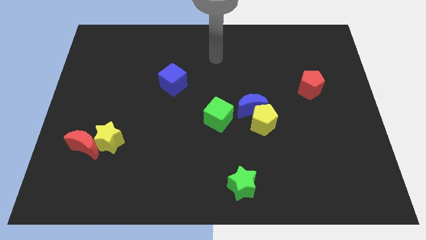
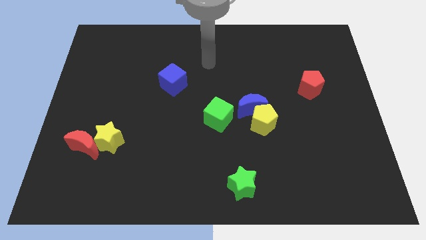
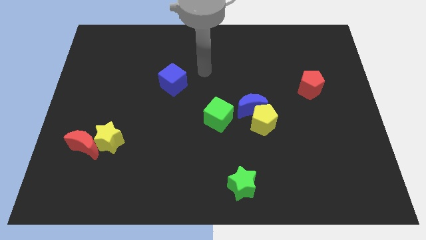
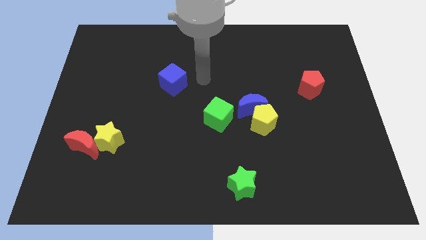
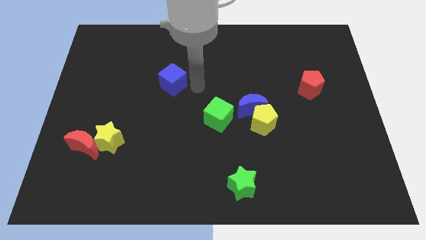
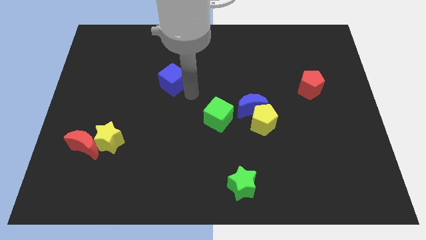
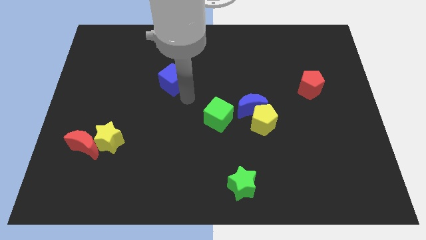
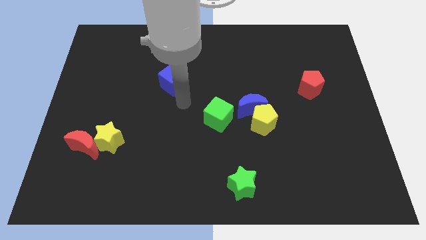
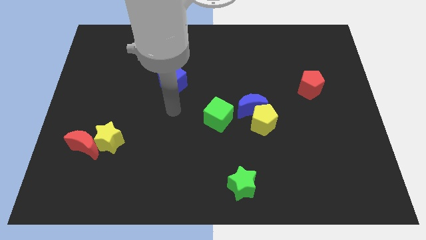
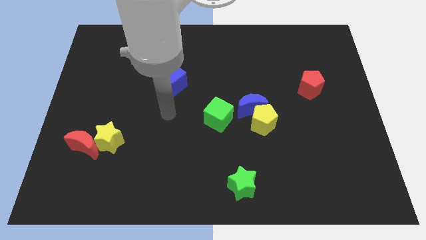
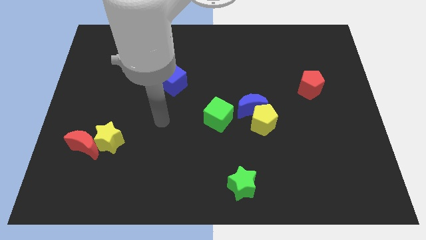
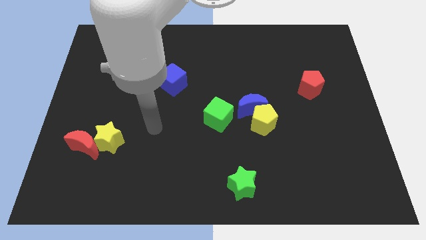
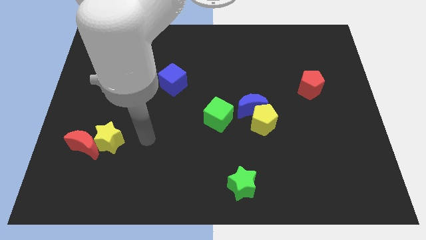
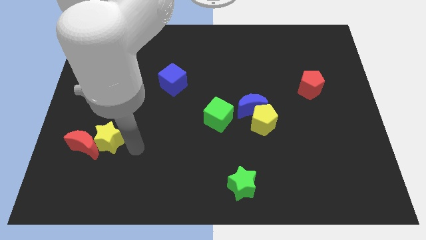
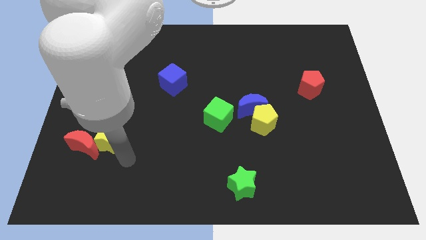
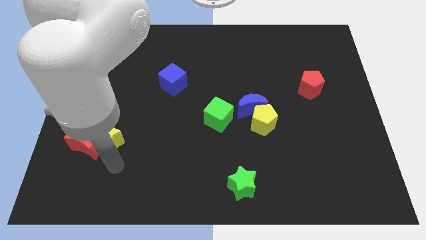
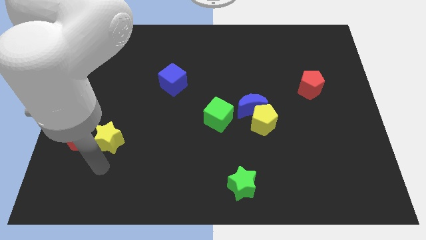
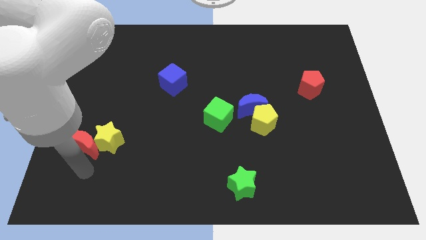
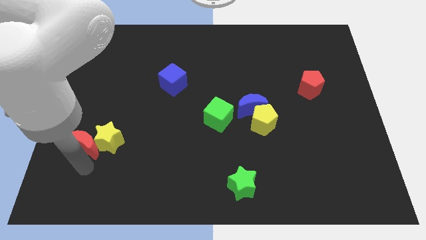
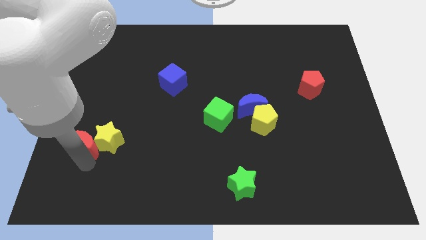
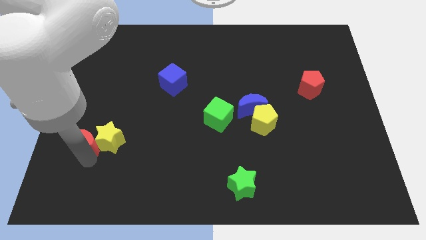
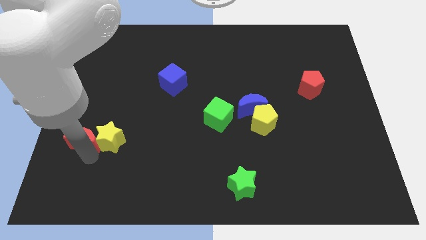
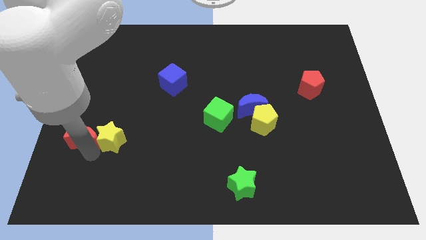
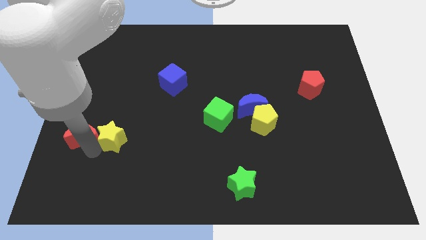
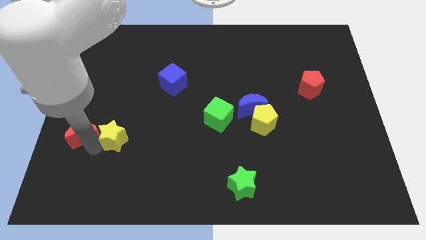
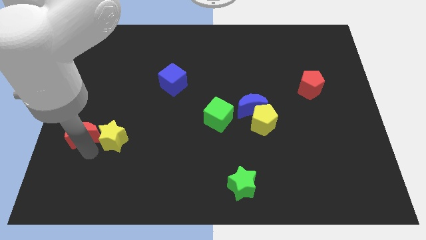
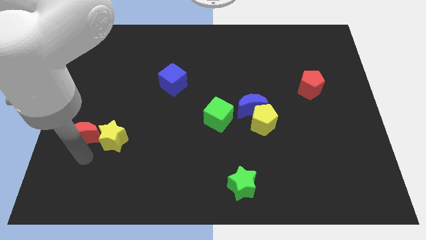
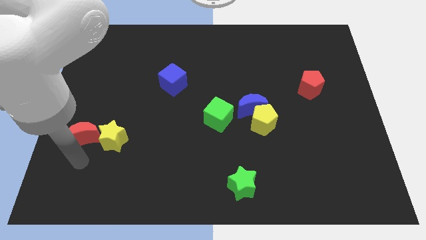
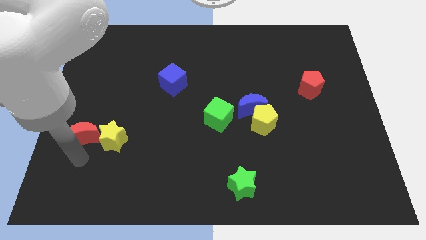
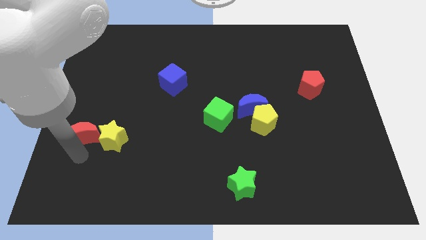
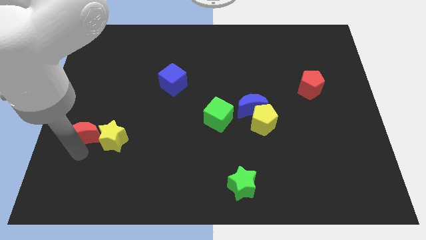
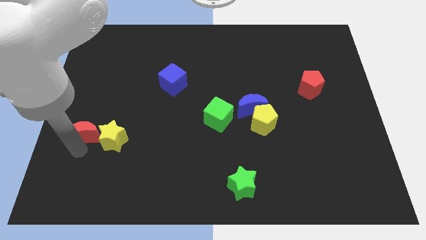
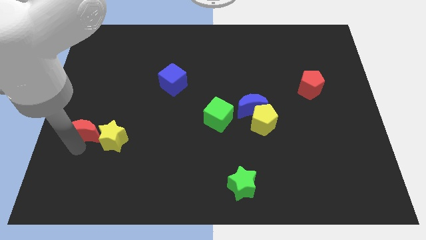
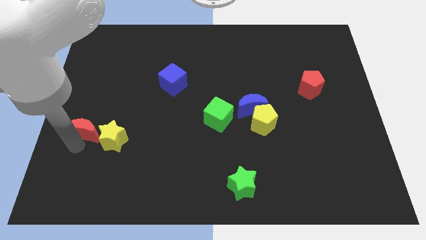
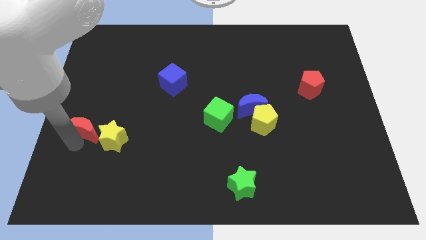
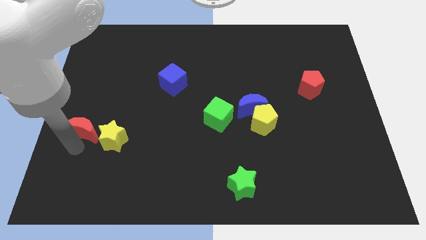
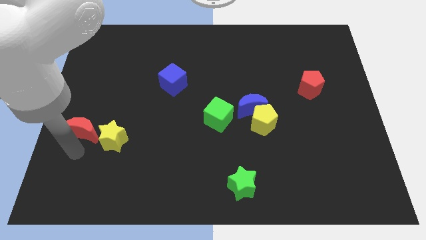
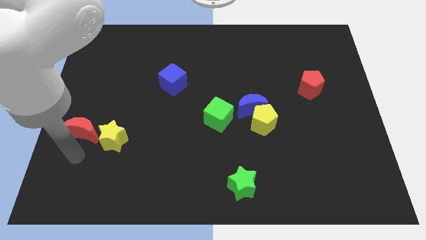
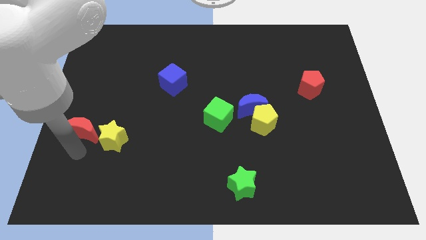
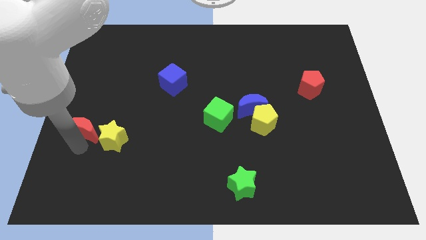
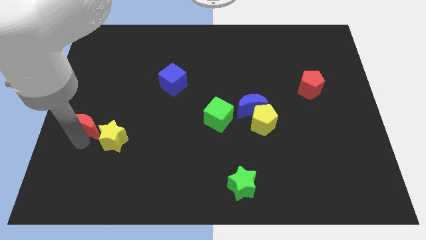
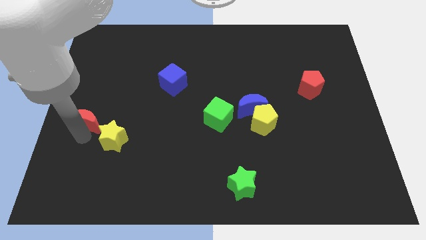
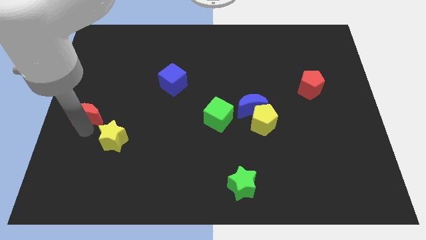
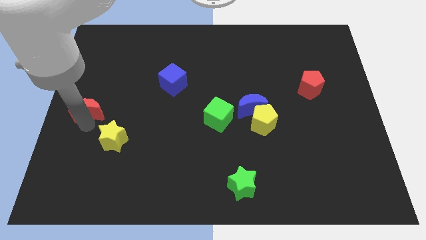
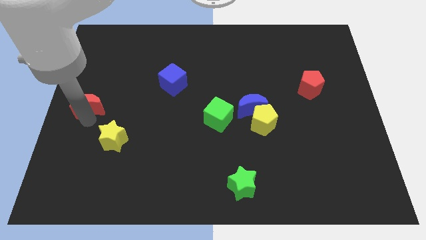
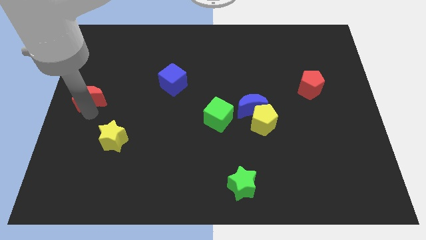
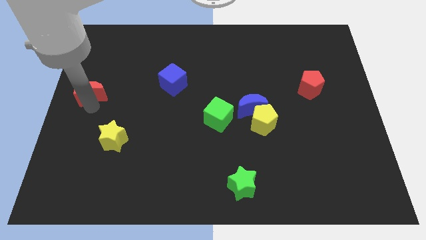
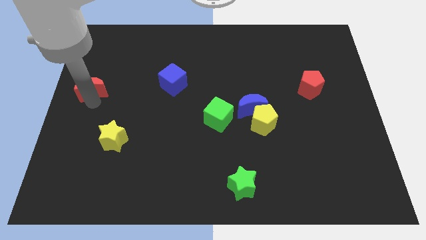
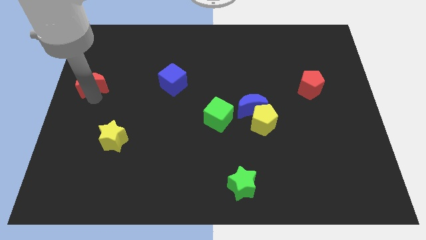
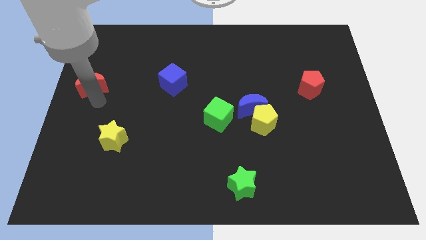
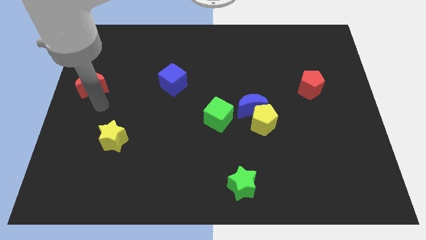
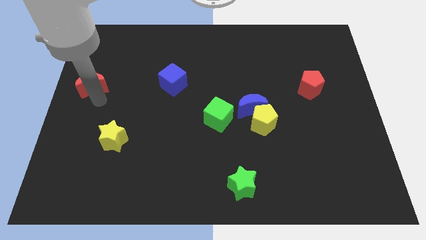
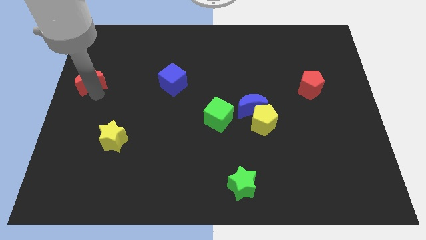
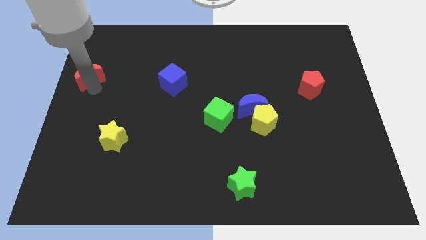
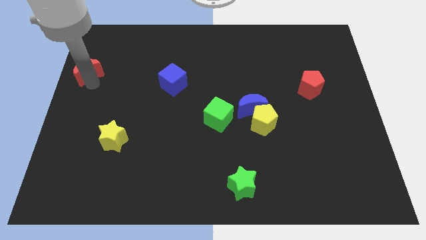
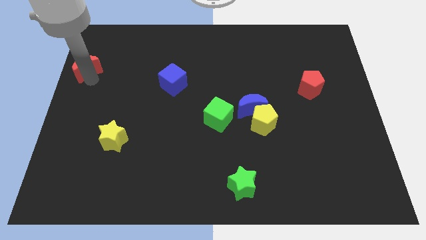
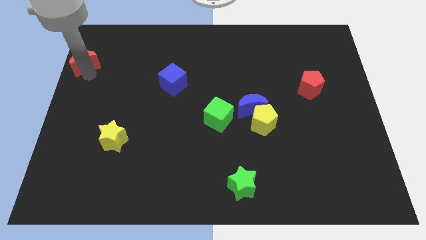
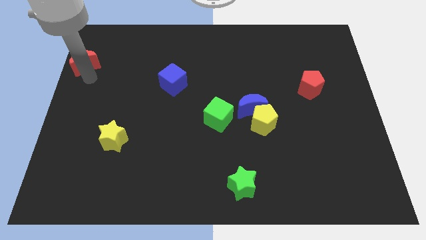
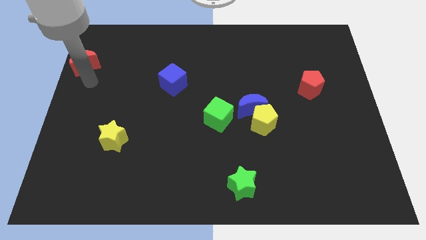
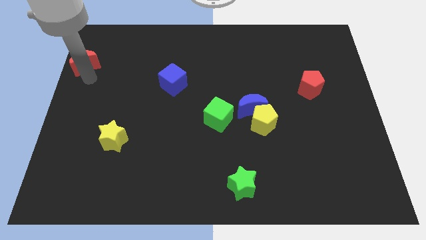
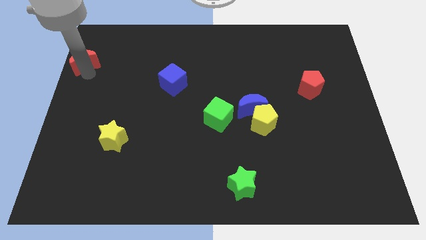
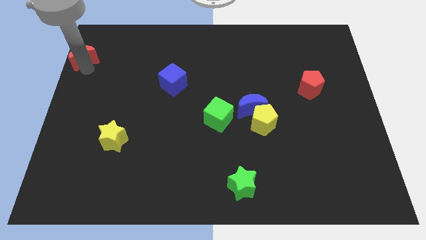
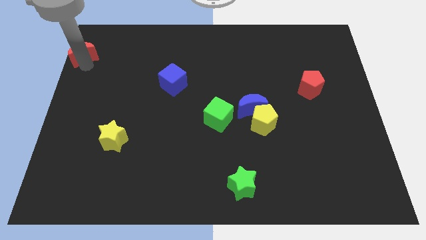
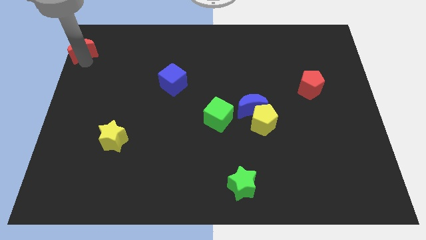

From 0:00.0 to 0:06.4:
put the red moon to the top left corner
